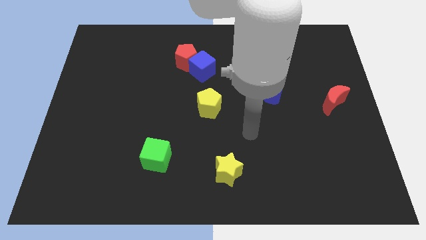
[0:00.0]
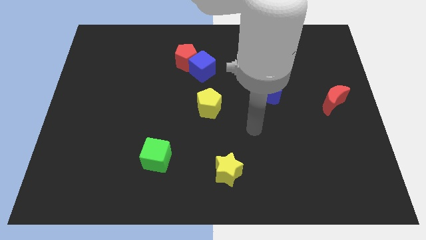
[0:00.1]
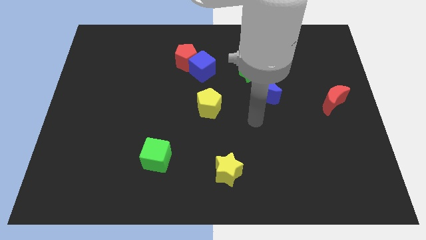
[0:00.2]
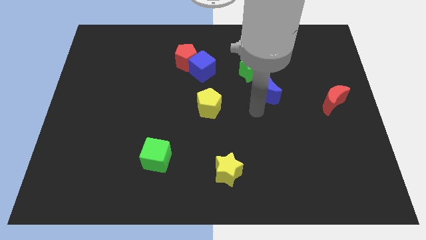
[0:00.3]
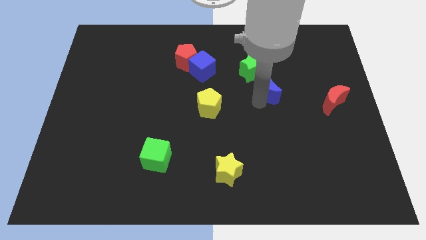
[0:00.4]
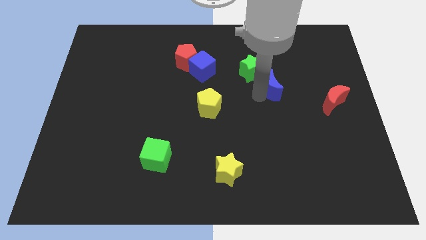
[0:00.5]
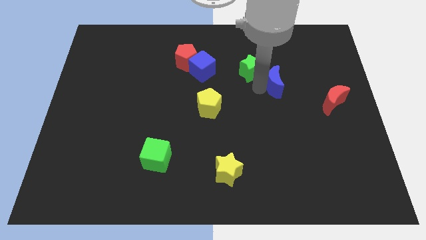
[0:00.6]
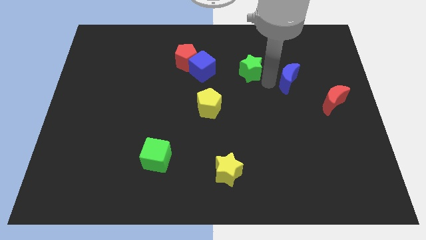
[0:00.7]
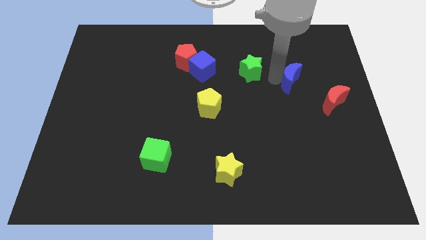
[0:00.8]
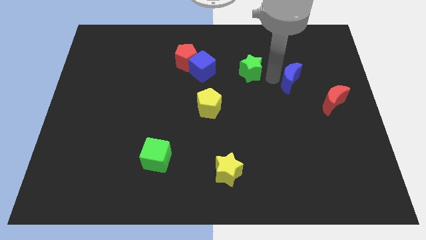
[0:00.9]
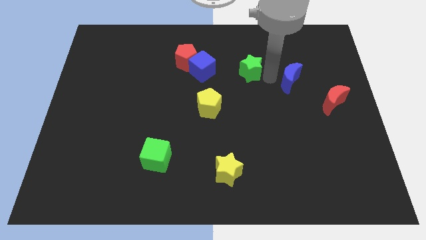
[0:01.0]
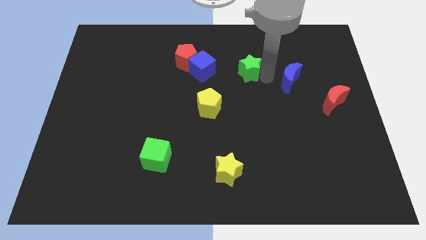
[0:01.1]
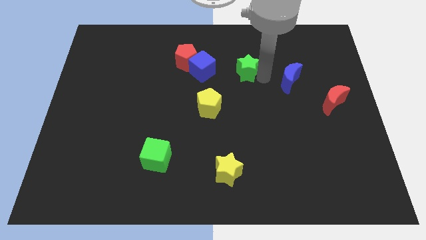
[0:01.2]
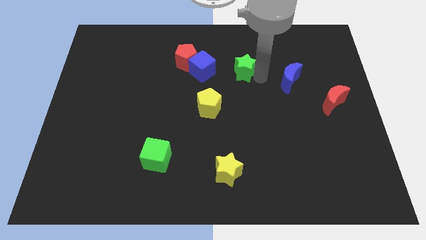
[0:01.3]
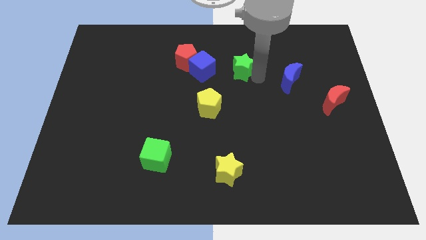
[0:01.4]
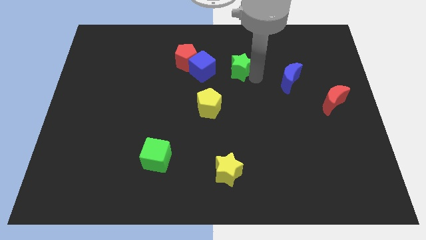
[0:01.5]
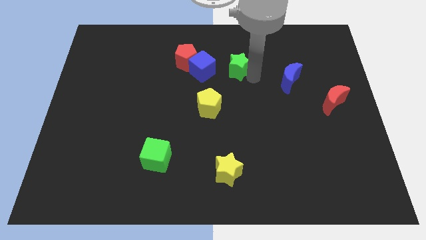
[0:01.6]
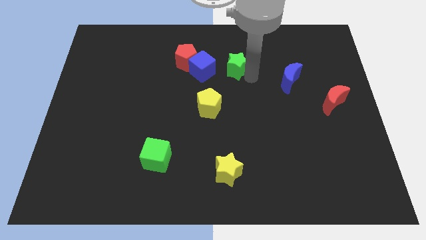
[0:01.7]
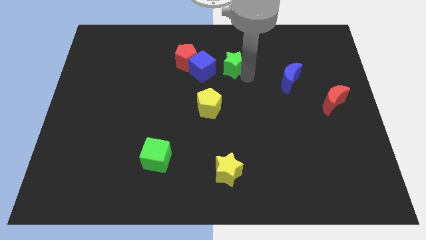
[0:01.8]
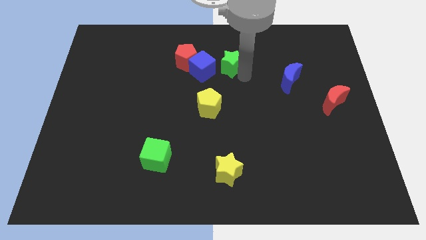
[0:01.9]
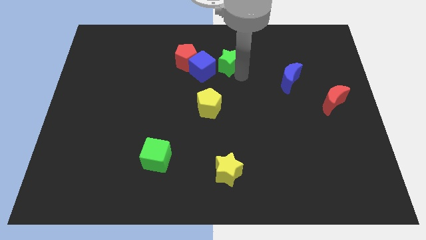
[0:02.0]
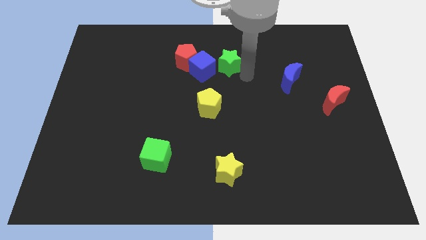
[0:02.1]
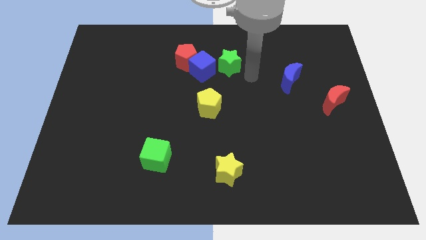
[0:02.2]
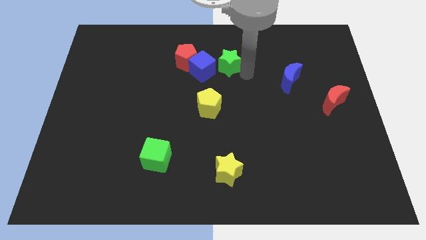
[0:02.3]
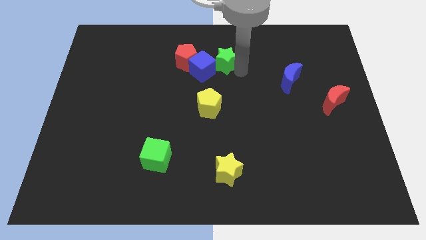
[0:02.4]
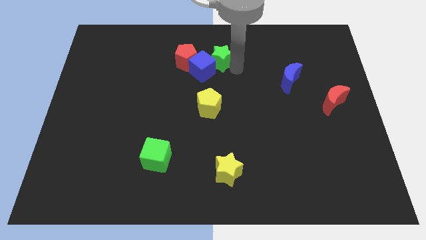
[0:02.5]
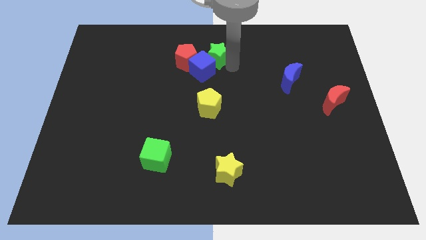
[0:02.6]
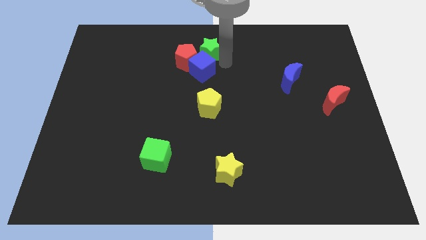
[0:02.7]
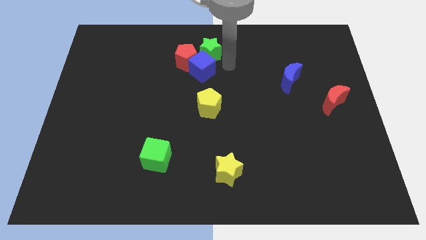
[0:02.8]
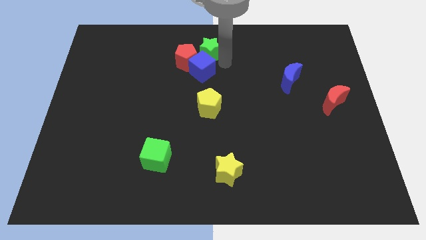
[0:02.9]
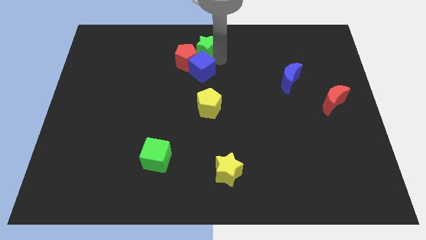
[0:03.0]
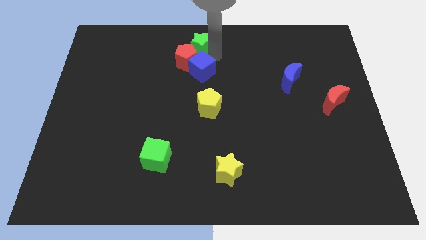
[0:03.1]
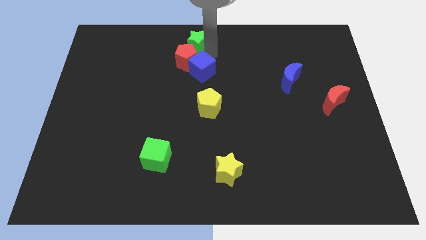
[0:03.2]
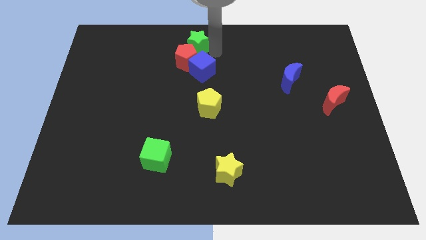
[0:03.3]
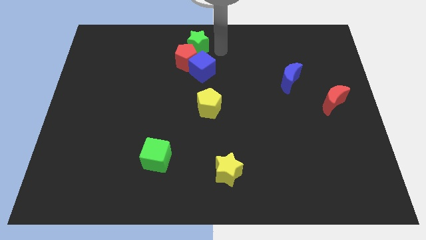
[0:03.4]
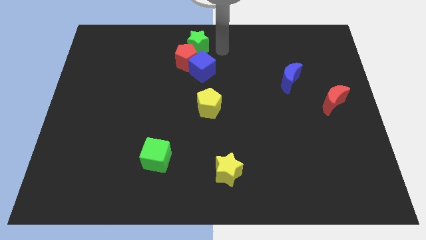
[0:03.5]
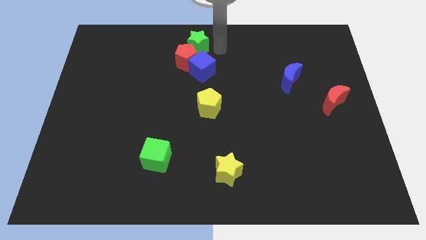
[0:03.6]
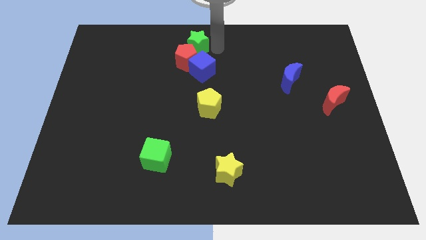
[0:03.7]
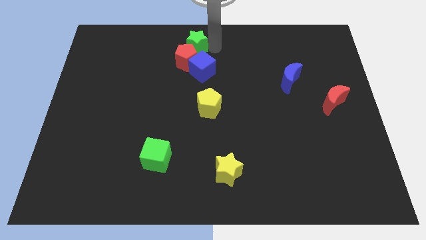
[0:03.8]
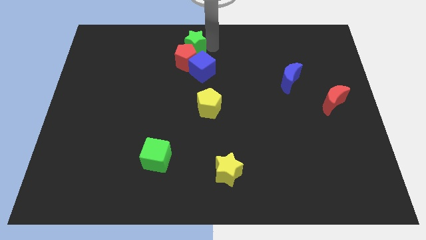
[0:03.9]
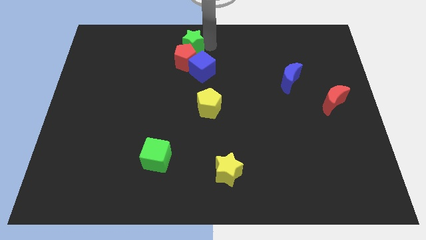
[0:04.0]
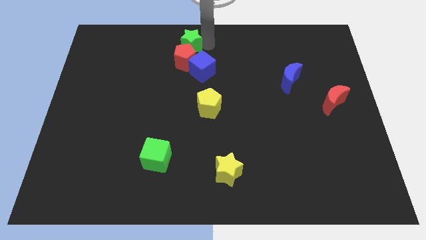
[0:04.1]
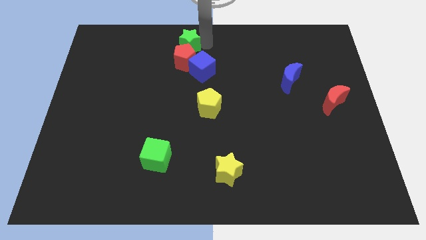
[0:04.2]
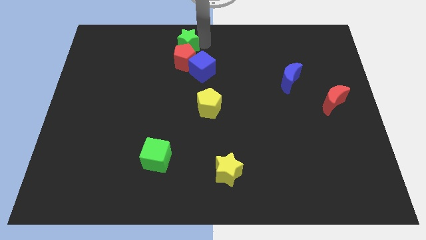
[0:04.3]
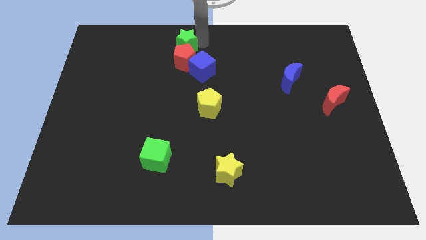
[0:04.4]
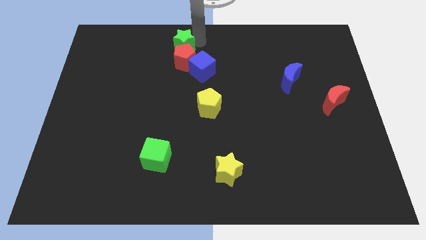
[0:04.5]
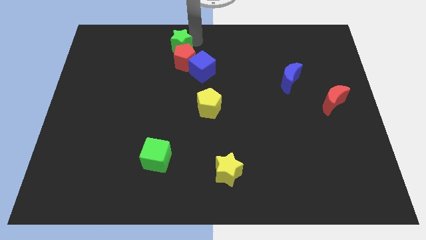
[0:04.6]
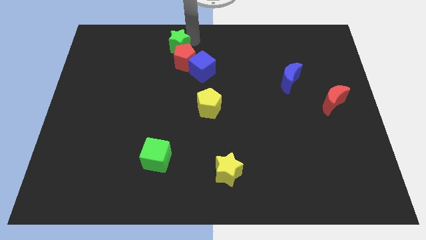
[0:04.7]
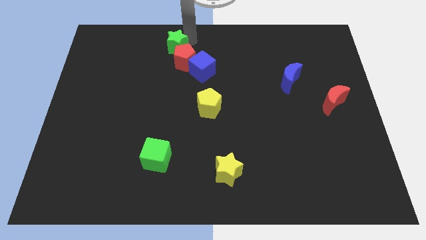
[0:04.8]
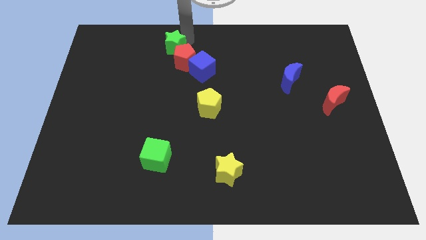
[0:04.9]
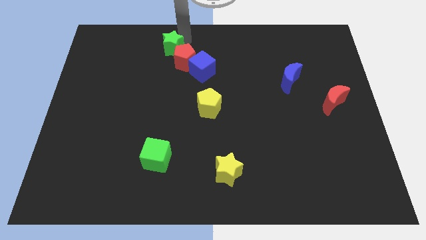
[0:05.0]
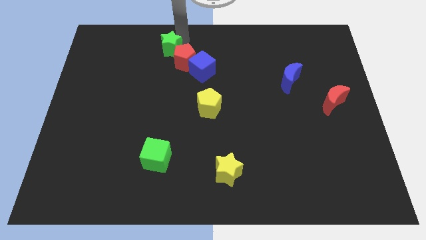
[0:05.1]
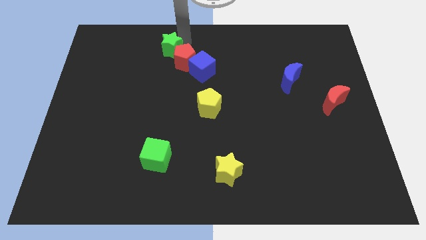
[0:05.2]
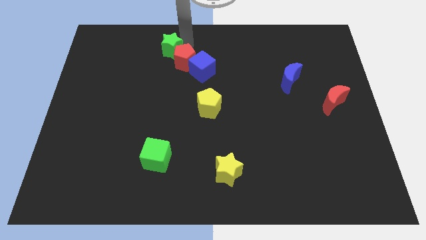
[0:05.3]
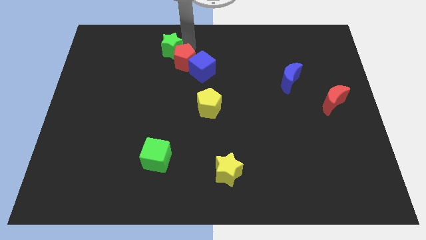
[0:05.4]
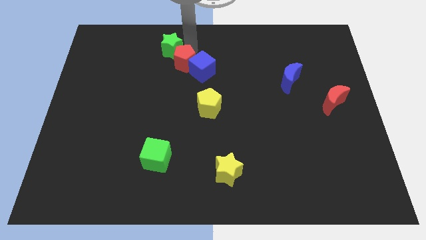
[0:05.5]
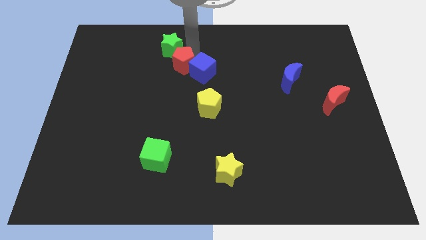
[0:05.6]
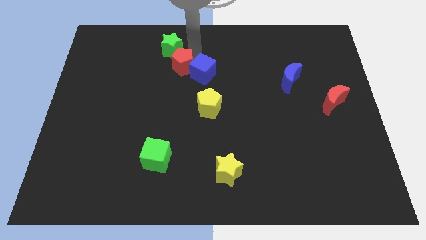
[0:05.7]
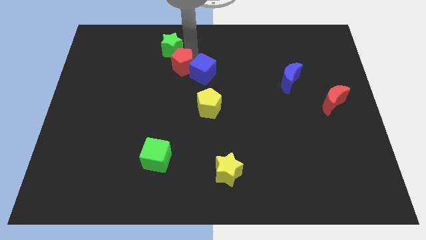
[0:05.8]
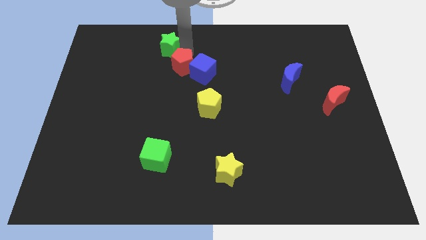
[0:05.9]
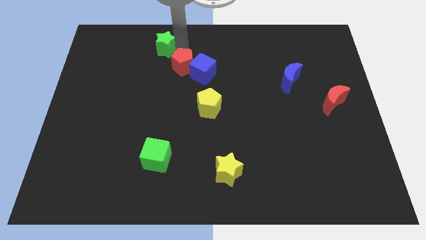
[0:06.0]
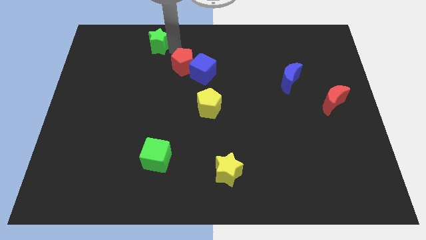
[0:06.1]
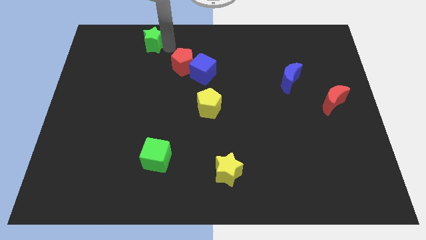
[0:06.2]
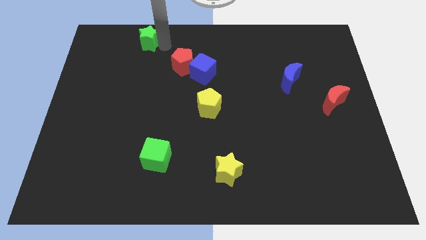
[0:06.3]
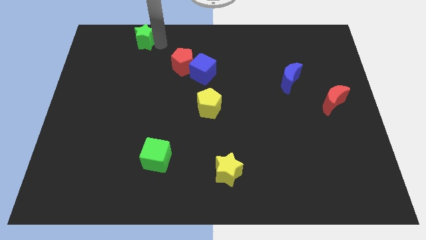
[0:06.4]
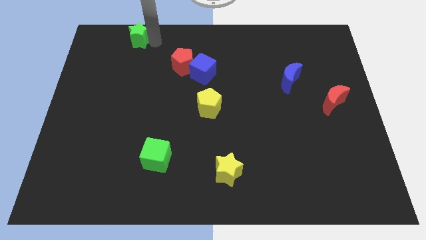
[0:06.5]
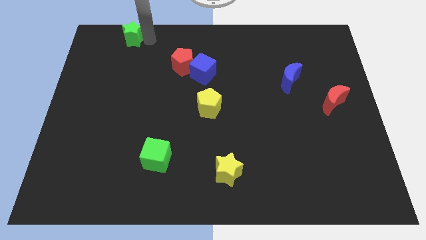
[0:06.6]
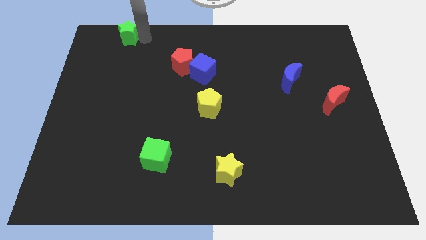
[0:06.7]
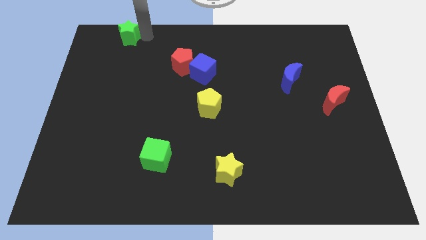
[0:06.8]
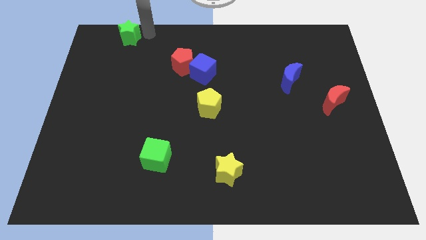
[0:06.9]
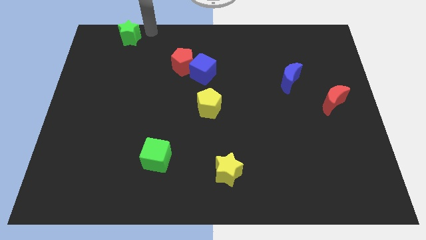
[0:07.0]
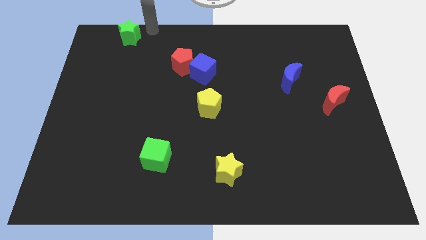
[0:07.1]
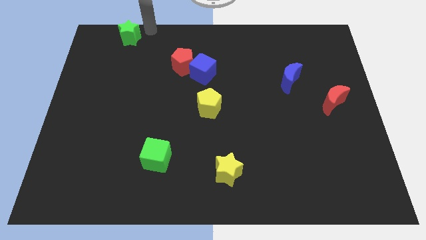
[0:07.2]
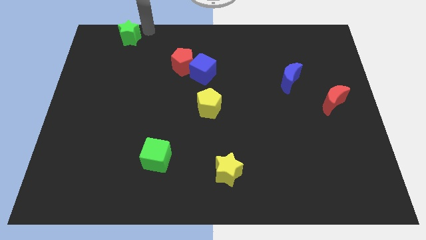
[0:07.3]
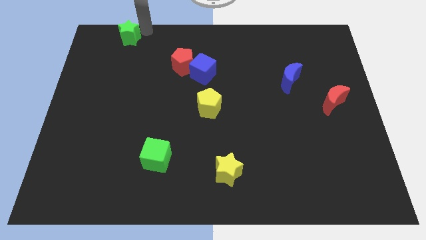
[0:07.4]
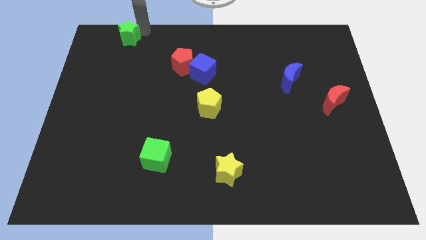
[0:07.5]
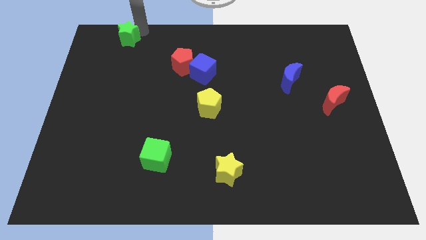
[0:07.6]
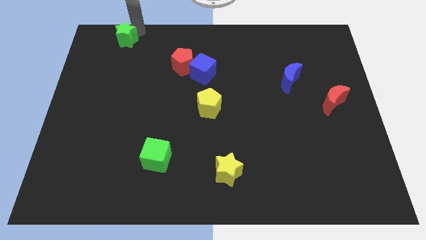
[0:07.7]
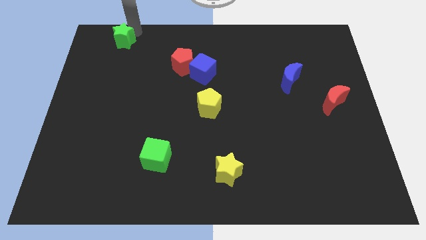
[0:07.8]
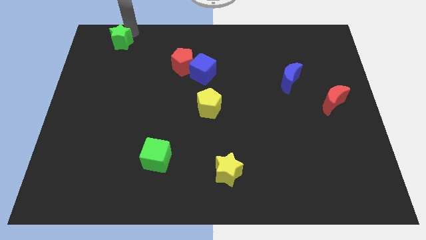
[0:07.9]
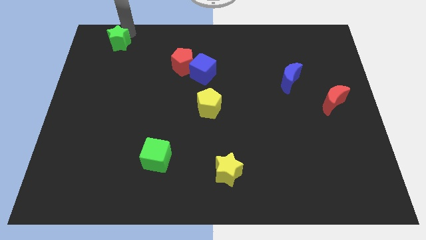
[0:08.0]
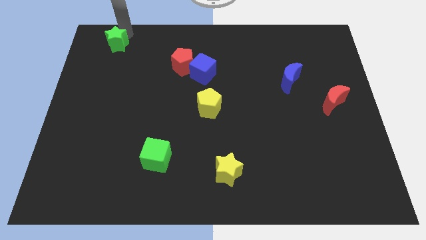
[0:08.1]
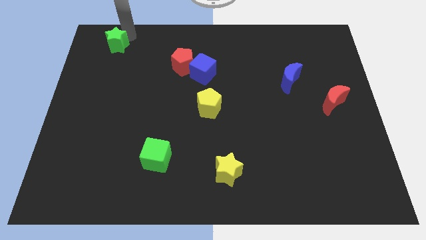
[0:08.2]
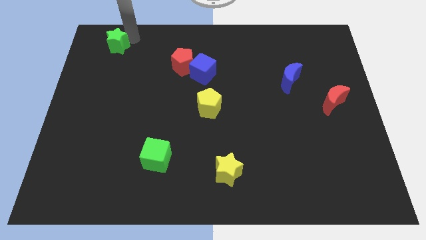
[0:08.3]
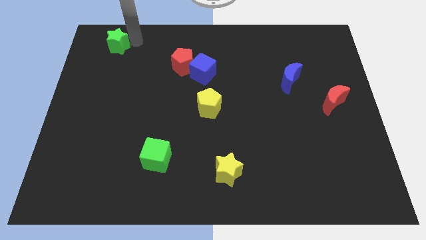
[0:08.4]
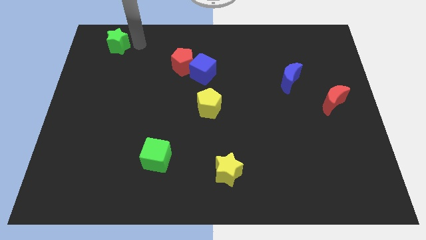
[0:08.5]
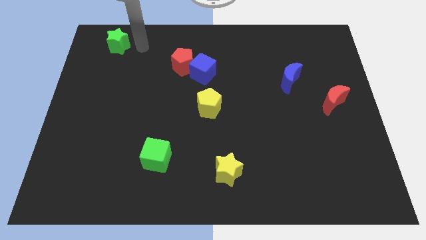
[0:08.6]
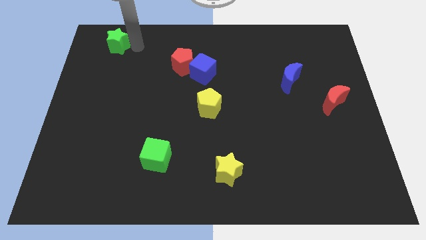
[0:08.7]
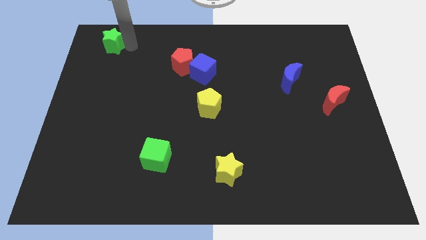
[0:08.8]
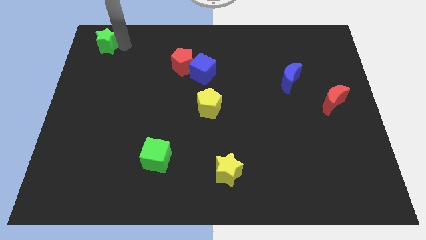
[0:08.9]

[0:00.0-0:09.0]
push the green star to the top left corner
